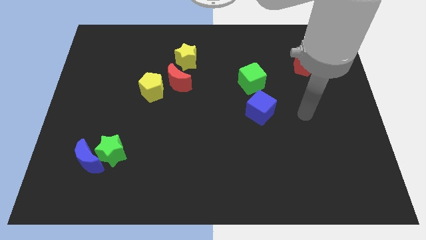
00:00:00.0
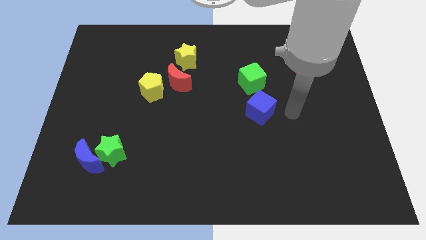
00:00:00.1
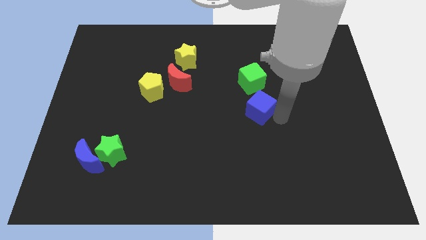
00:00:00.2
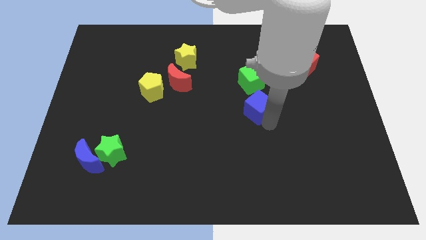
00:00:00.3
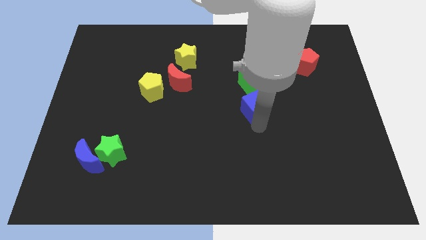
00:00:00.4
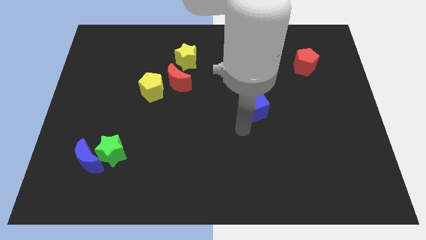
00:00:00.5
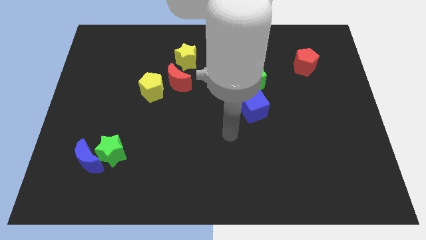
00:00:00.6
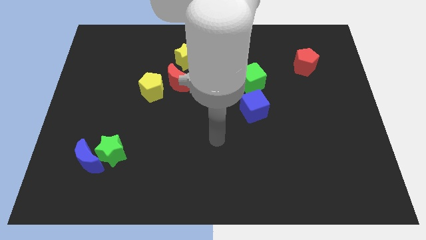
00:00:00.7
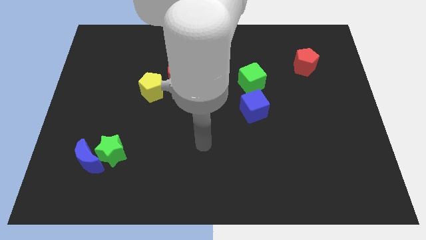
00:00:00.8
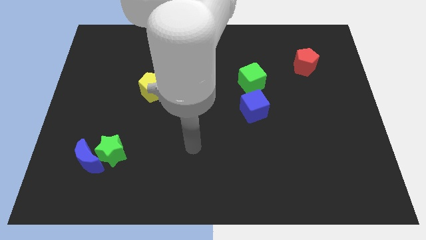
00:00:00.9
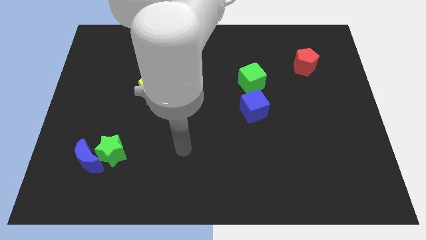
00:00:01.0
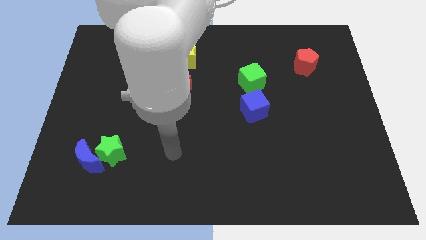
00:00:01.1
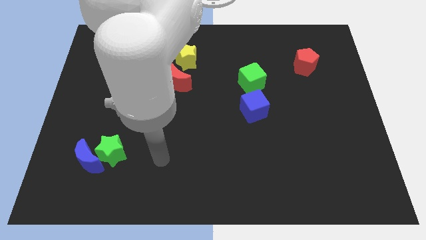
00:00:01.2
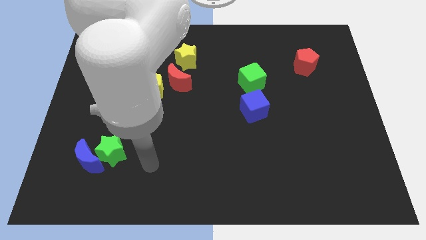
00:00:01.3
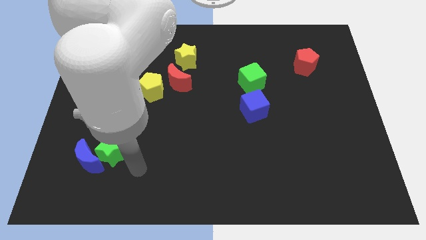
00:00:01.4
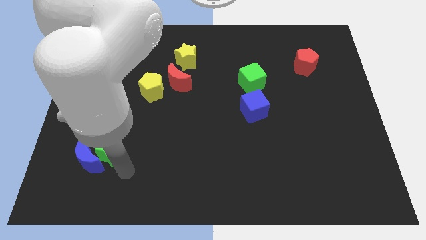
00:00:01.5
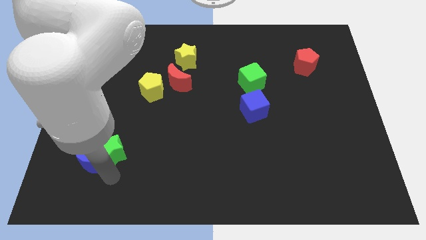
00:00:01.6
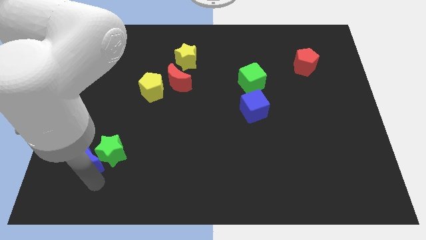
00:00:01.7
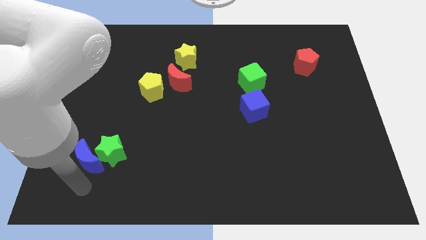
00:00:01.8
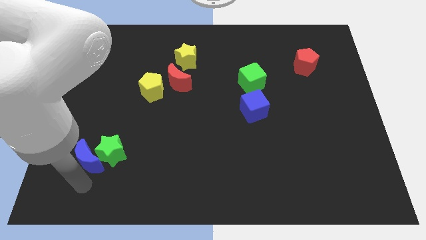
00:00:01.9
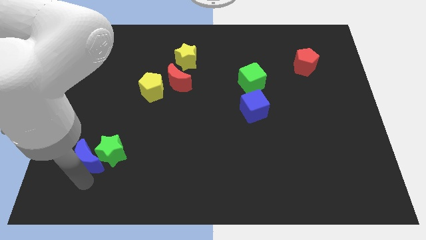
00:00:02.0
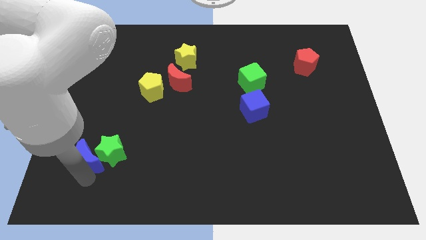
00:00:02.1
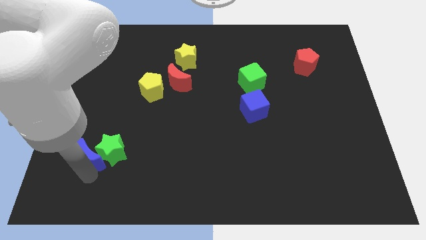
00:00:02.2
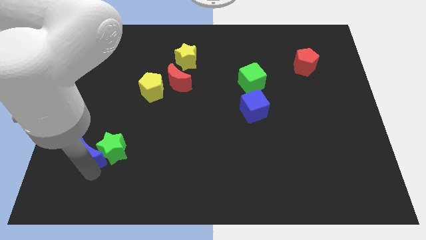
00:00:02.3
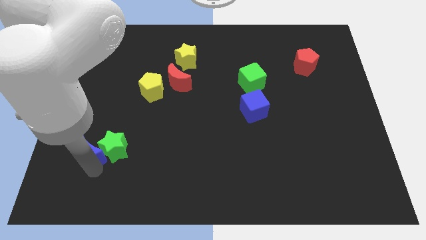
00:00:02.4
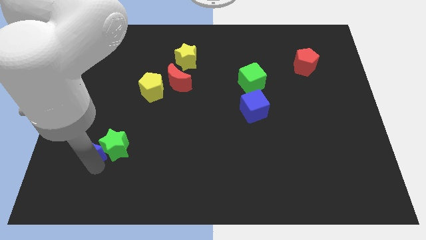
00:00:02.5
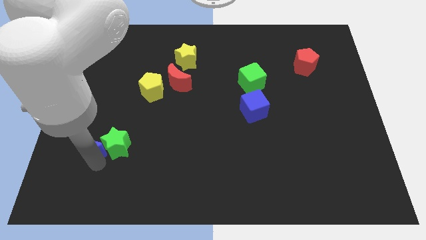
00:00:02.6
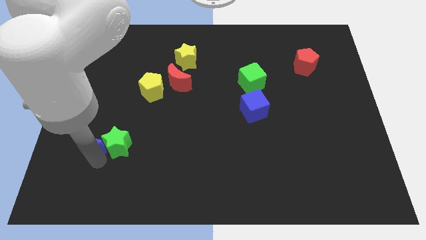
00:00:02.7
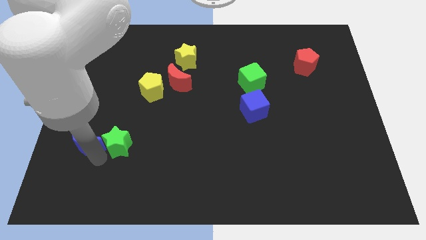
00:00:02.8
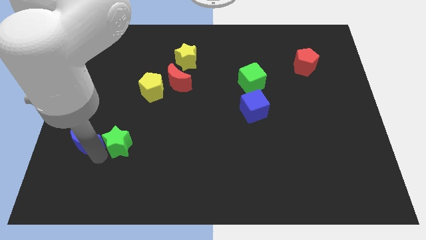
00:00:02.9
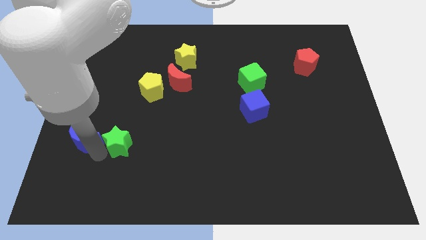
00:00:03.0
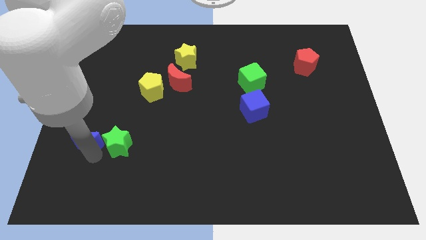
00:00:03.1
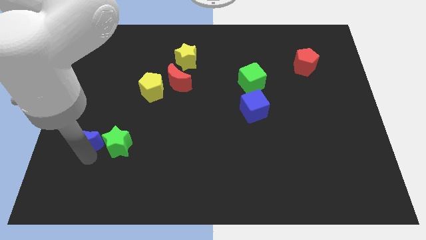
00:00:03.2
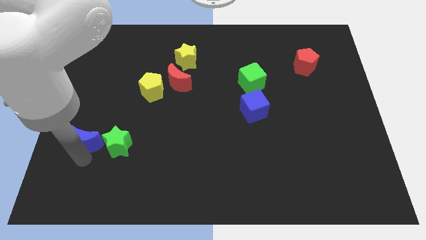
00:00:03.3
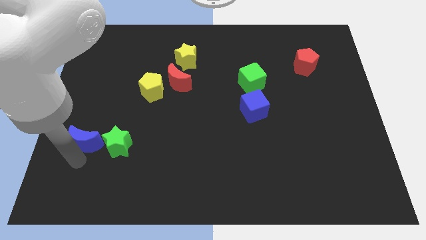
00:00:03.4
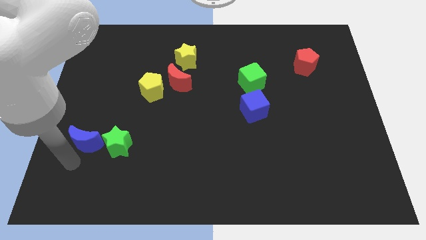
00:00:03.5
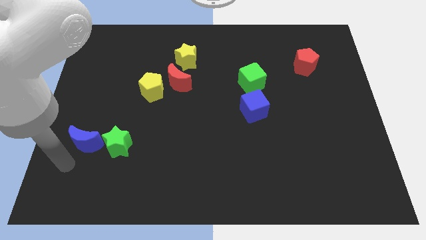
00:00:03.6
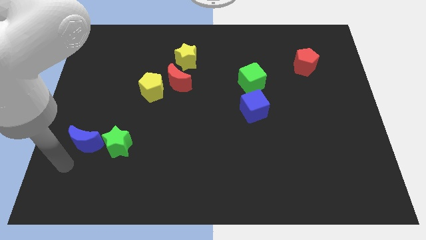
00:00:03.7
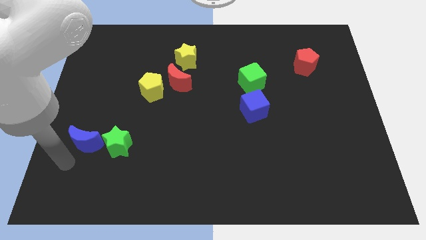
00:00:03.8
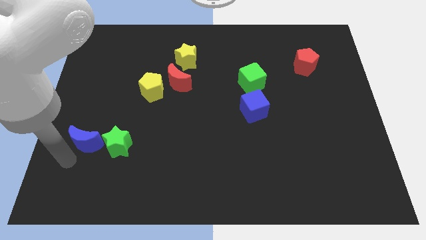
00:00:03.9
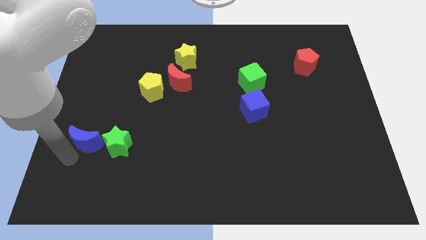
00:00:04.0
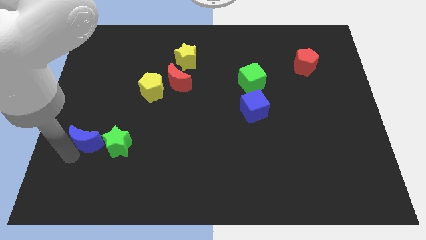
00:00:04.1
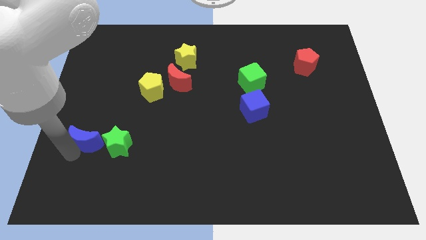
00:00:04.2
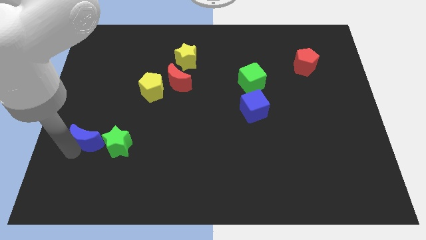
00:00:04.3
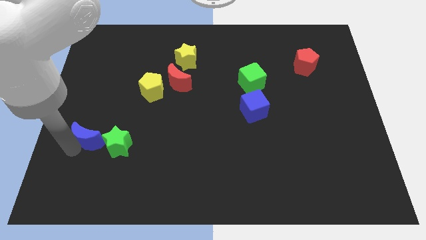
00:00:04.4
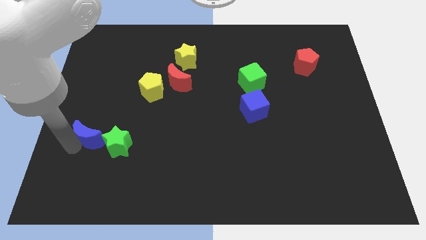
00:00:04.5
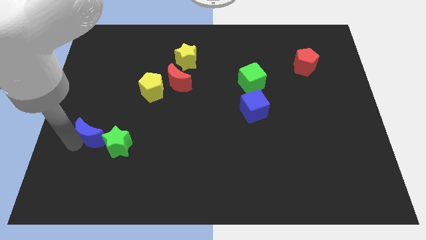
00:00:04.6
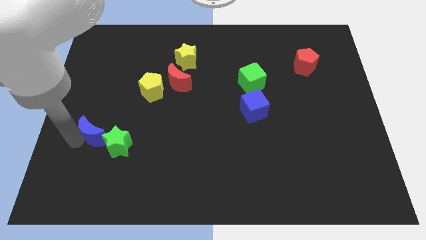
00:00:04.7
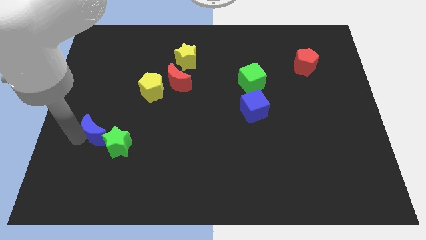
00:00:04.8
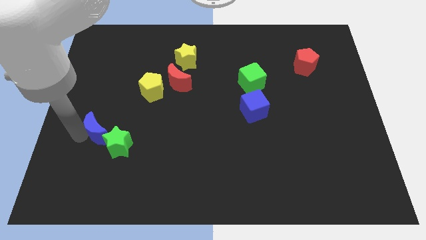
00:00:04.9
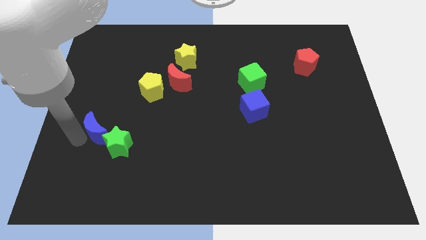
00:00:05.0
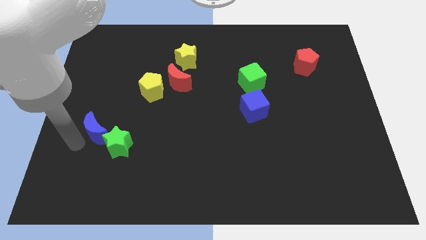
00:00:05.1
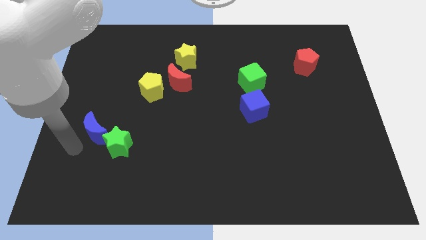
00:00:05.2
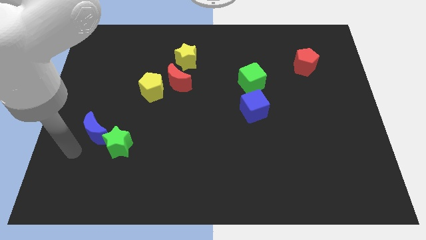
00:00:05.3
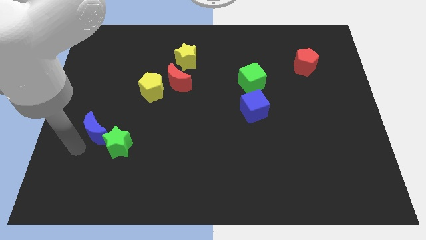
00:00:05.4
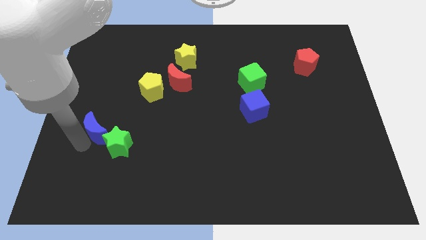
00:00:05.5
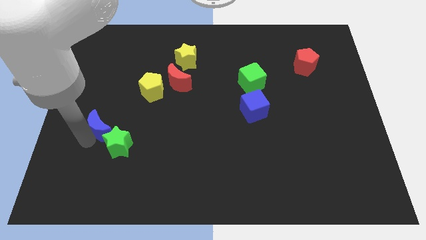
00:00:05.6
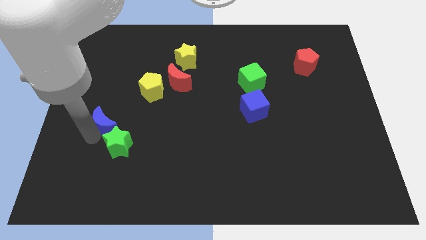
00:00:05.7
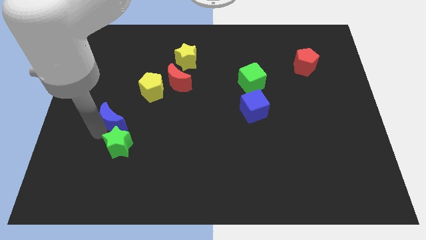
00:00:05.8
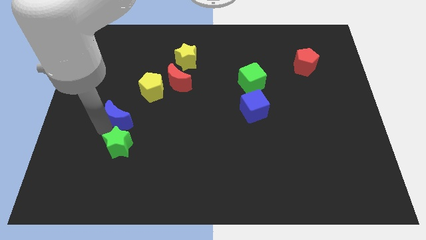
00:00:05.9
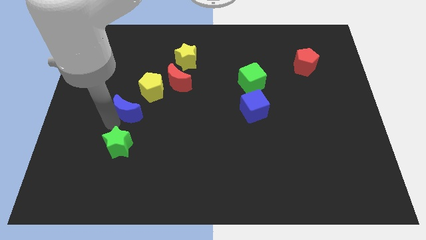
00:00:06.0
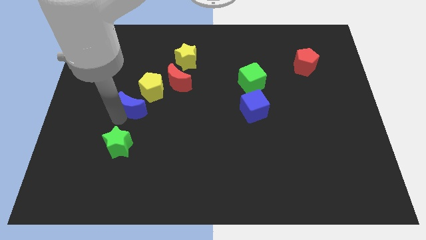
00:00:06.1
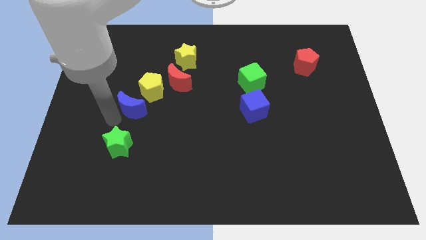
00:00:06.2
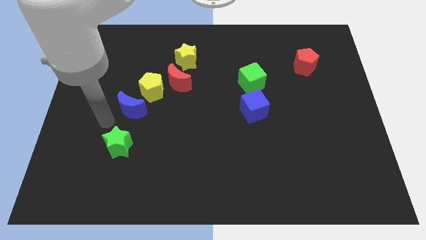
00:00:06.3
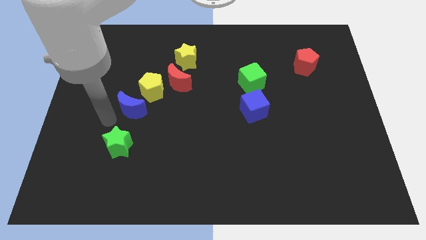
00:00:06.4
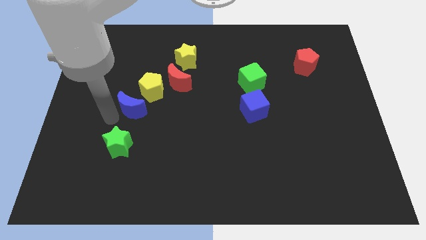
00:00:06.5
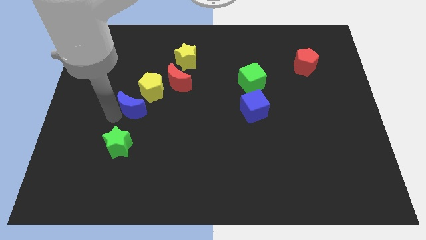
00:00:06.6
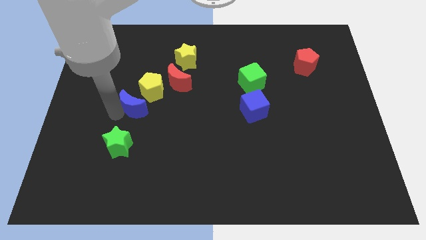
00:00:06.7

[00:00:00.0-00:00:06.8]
slide the blue moon diagonally down and to the left of the red moon

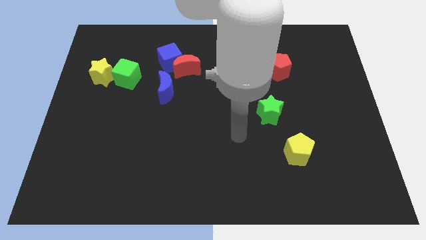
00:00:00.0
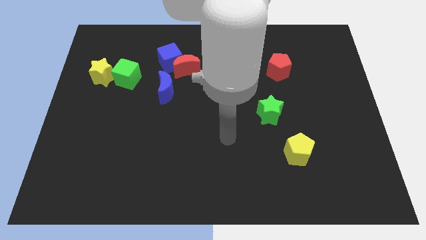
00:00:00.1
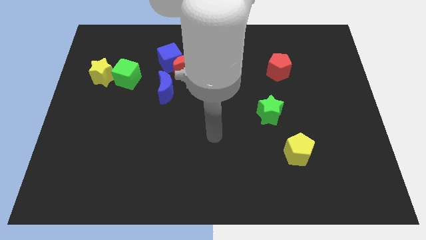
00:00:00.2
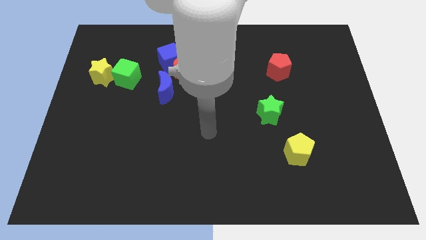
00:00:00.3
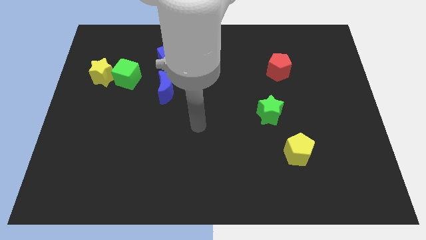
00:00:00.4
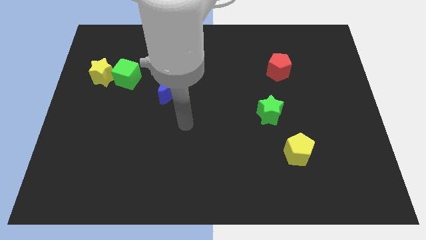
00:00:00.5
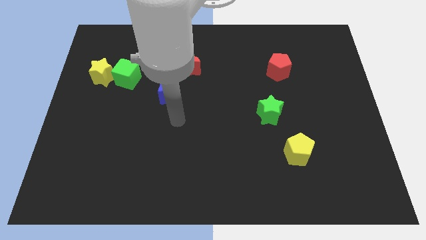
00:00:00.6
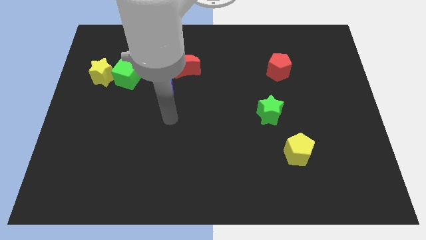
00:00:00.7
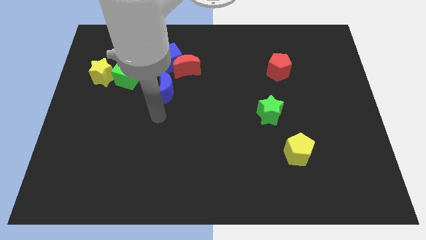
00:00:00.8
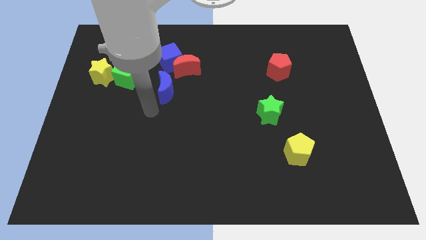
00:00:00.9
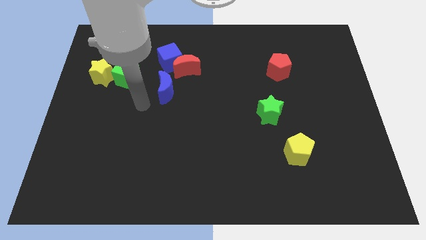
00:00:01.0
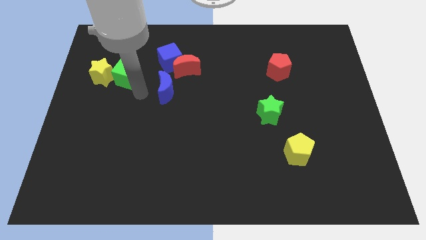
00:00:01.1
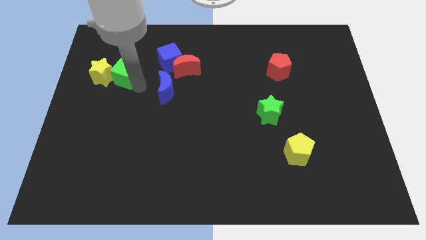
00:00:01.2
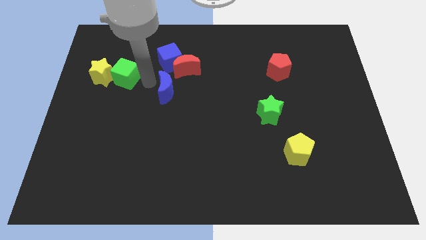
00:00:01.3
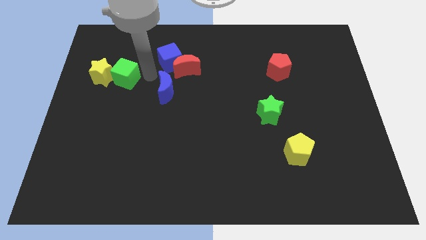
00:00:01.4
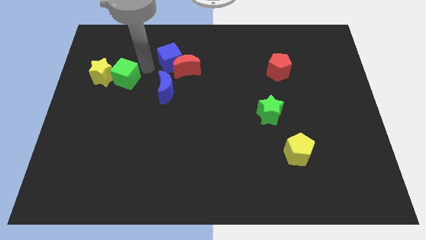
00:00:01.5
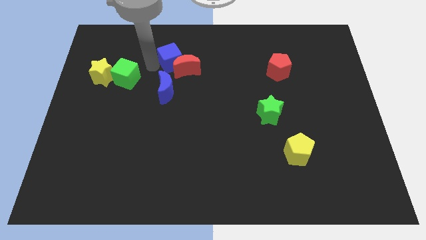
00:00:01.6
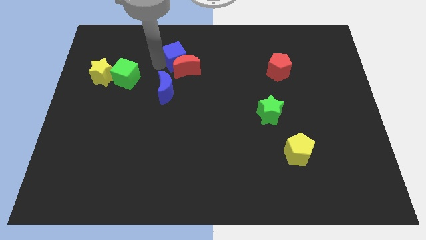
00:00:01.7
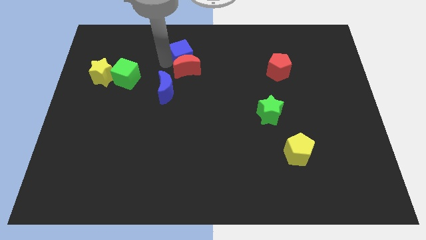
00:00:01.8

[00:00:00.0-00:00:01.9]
move the blue cube diagonally up and to the right of the red moon

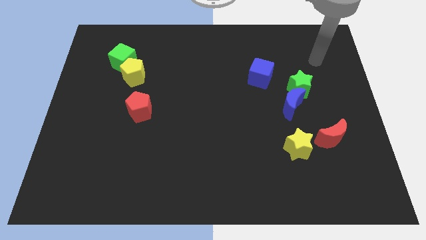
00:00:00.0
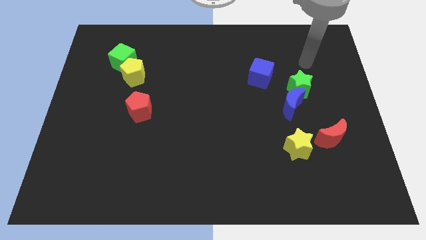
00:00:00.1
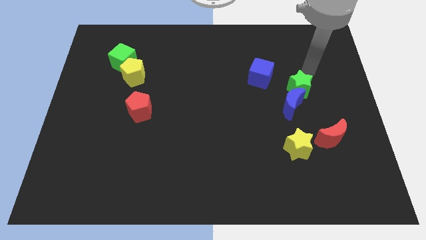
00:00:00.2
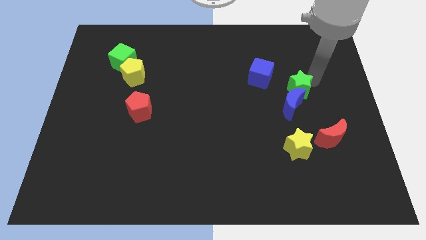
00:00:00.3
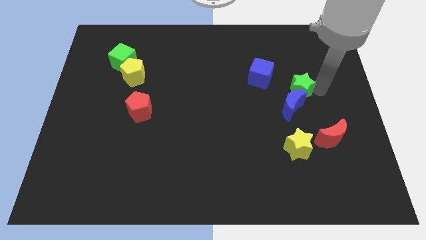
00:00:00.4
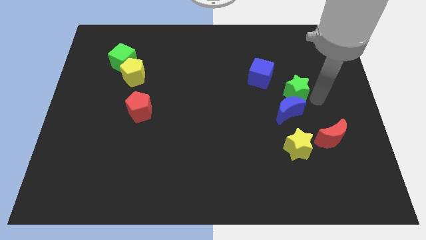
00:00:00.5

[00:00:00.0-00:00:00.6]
move the yellow star to the bottom side of the green star
